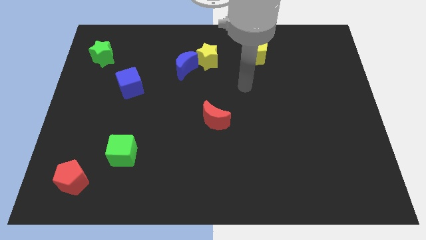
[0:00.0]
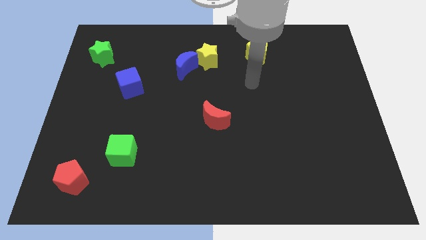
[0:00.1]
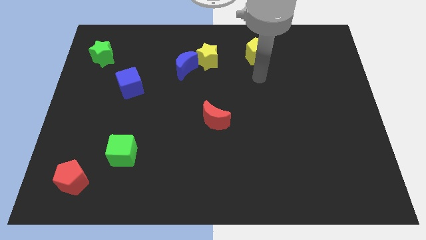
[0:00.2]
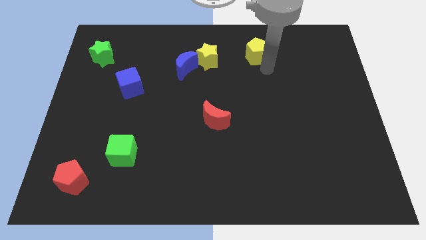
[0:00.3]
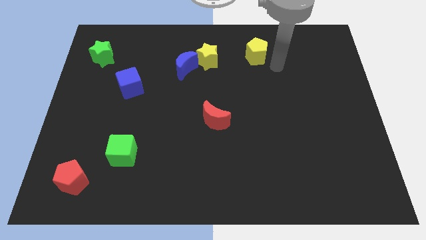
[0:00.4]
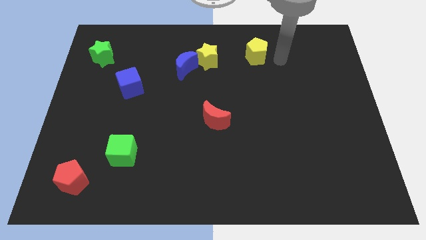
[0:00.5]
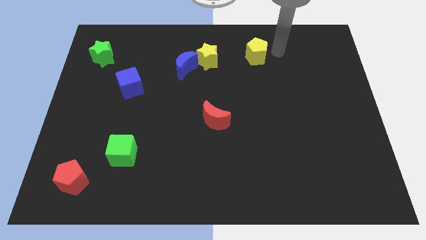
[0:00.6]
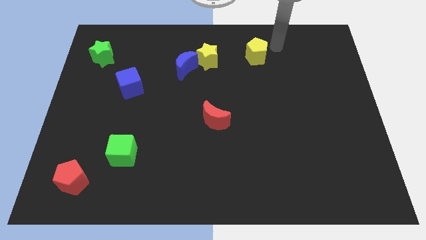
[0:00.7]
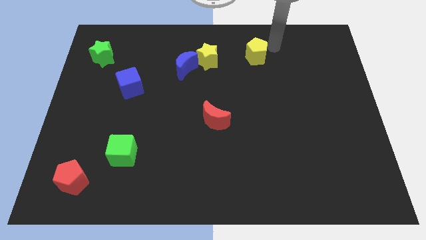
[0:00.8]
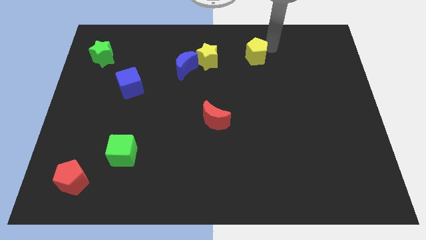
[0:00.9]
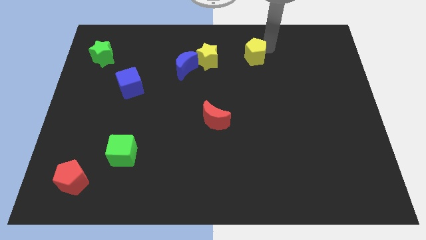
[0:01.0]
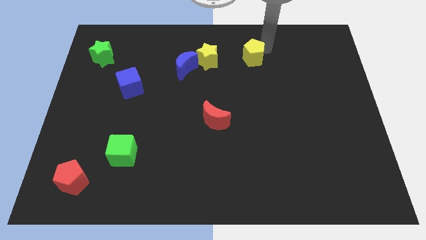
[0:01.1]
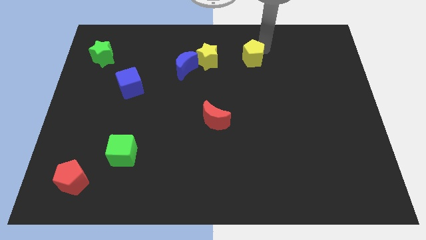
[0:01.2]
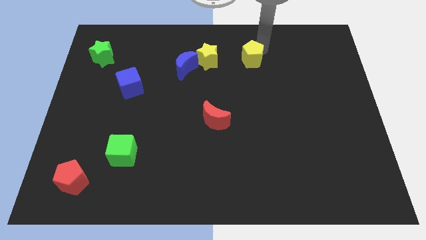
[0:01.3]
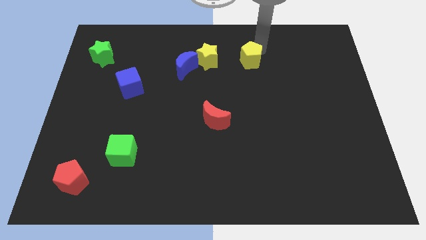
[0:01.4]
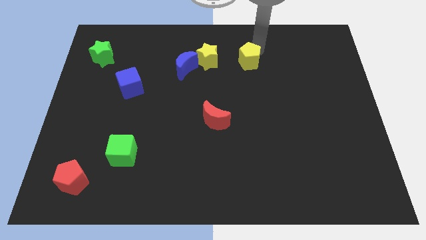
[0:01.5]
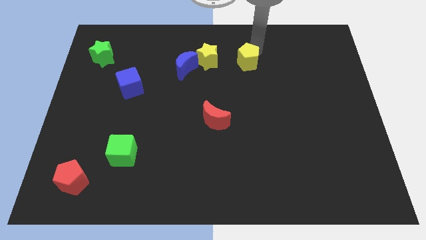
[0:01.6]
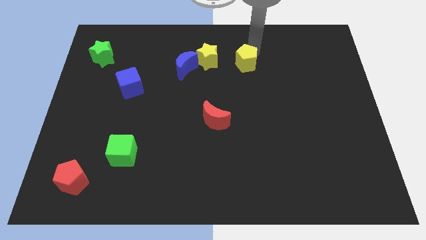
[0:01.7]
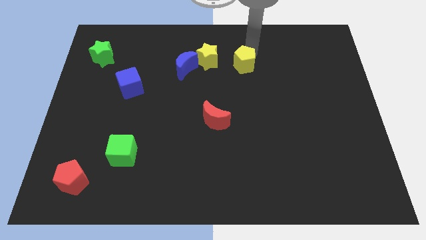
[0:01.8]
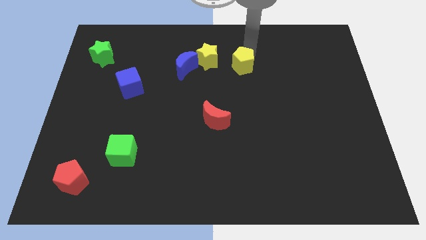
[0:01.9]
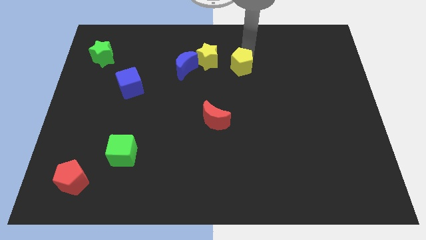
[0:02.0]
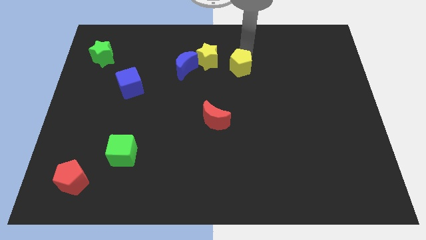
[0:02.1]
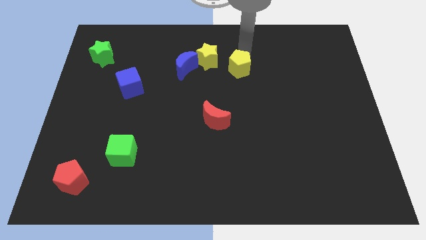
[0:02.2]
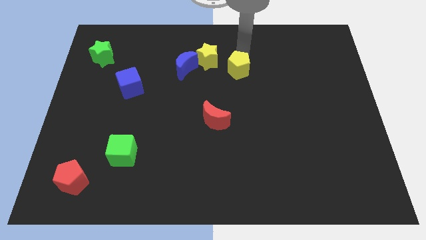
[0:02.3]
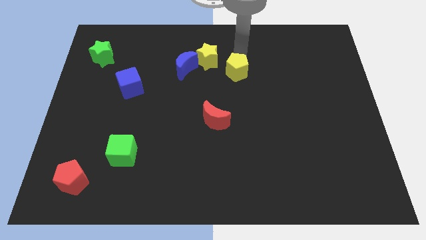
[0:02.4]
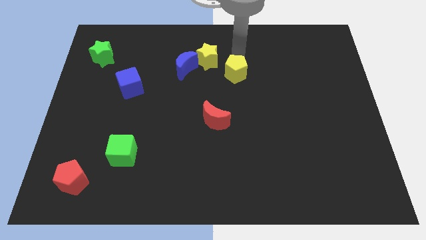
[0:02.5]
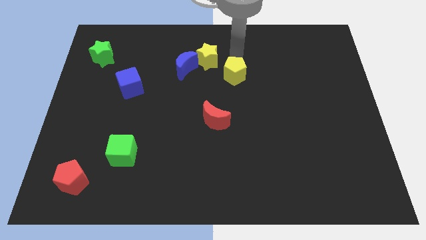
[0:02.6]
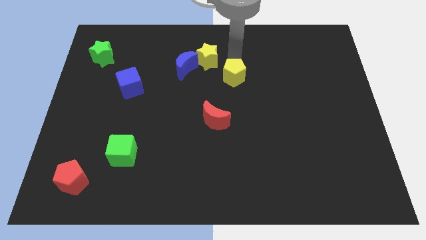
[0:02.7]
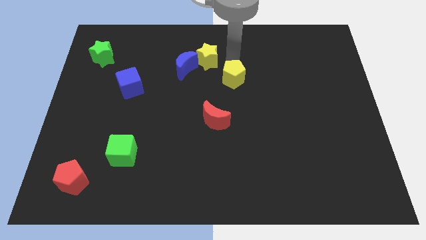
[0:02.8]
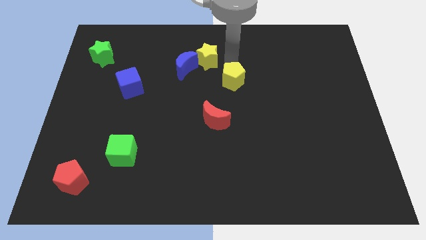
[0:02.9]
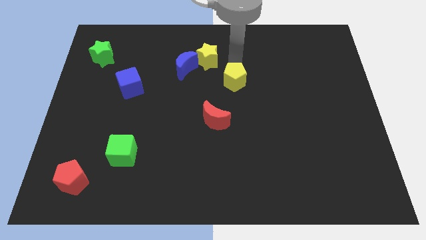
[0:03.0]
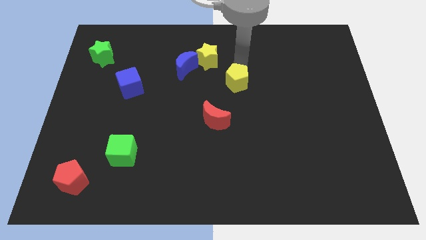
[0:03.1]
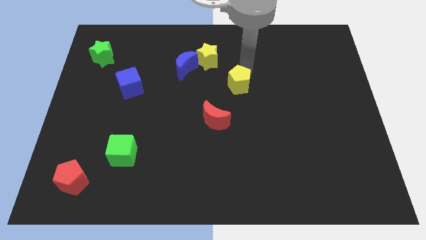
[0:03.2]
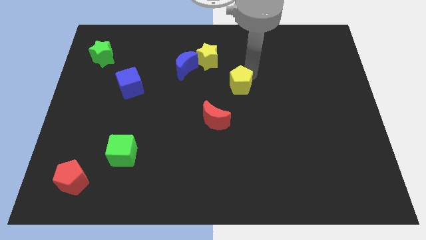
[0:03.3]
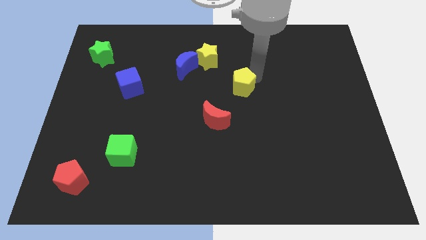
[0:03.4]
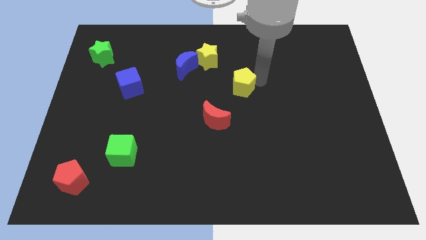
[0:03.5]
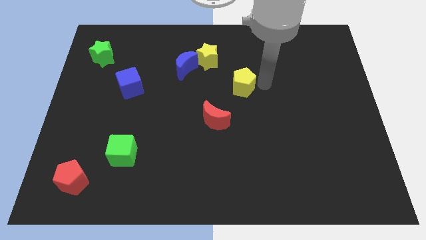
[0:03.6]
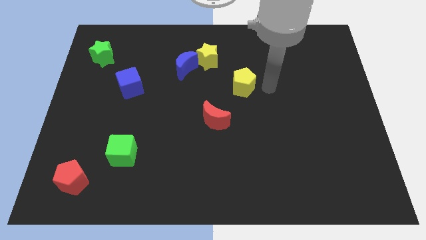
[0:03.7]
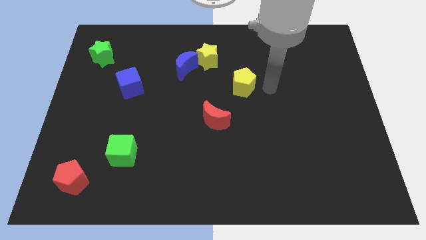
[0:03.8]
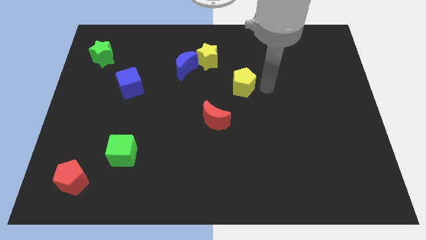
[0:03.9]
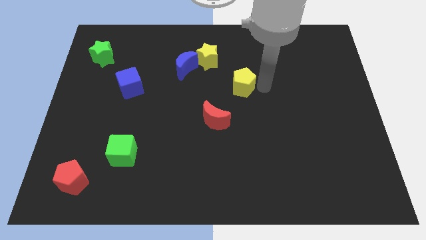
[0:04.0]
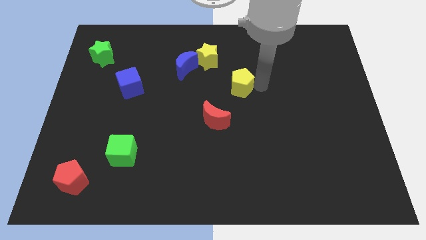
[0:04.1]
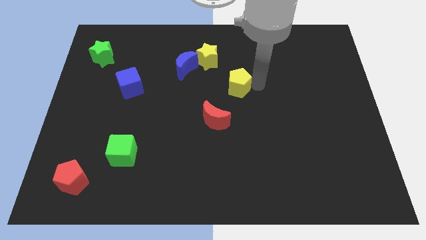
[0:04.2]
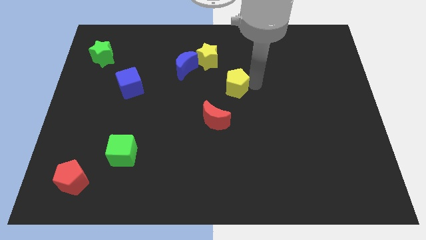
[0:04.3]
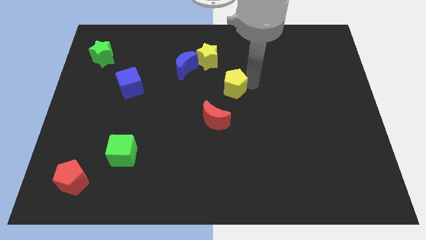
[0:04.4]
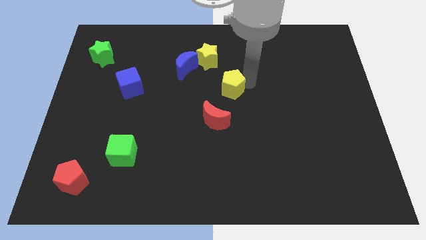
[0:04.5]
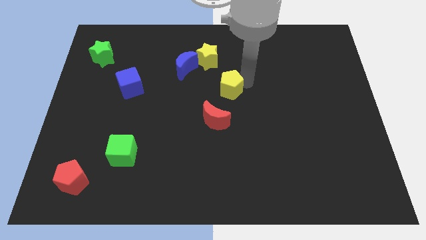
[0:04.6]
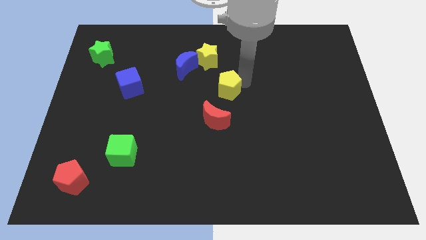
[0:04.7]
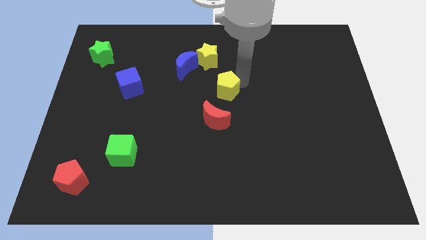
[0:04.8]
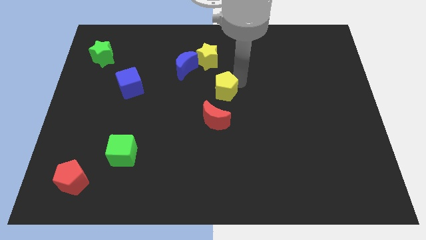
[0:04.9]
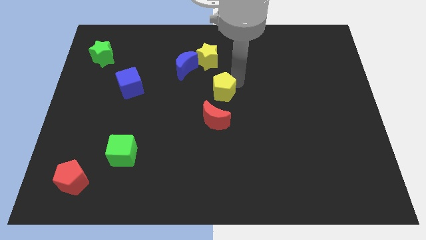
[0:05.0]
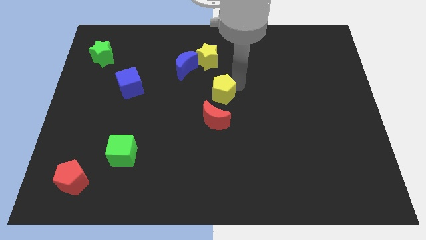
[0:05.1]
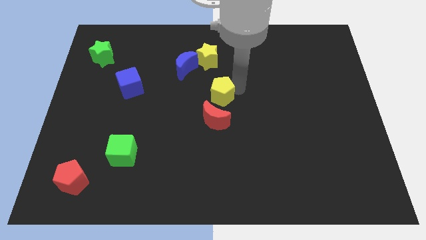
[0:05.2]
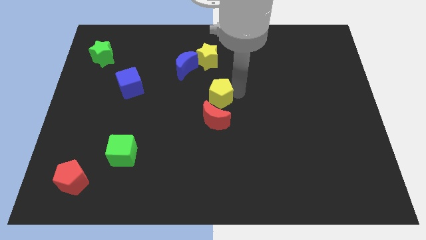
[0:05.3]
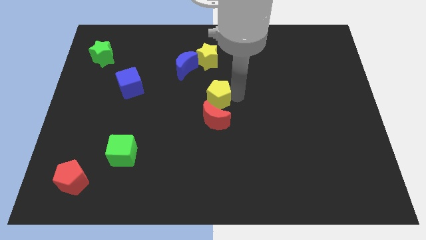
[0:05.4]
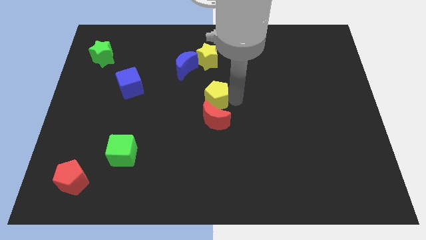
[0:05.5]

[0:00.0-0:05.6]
push the yellow pentagon diagonally up and to the left of the red moon

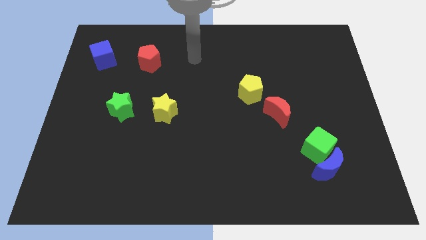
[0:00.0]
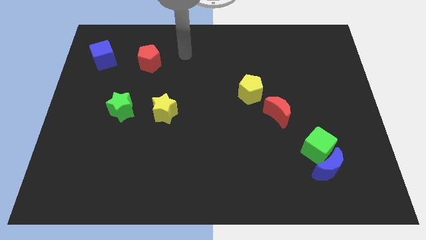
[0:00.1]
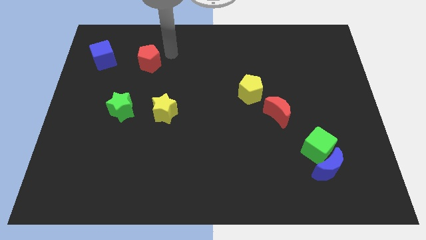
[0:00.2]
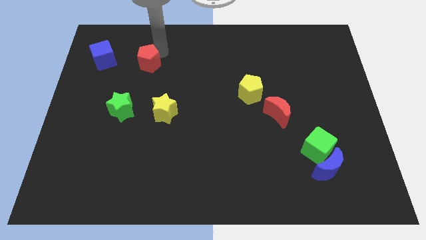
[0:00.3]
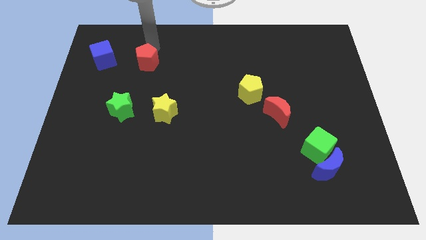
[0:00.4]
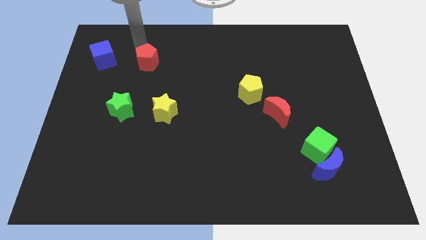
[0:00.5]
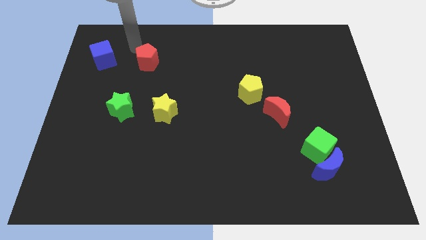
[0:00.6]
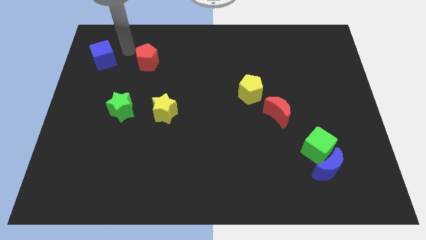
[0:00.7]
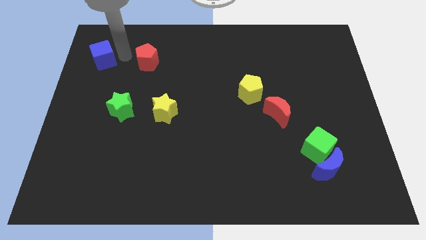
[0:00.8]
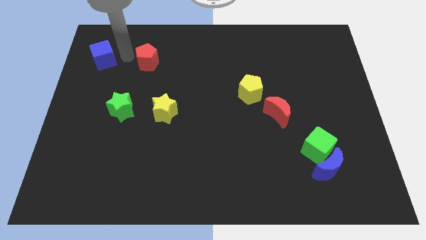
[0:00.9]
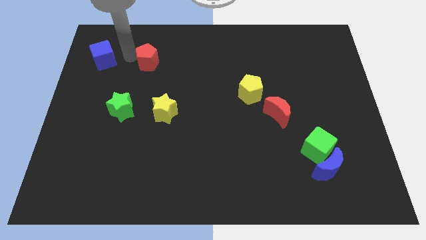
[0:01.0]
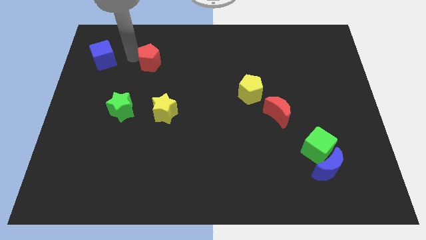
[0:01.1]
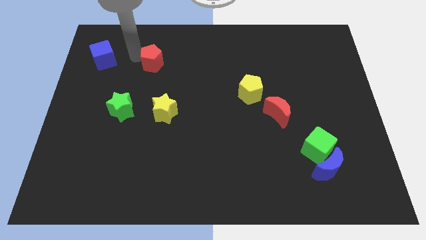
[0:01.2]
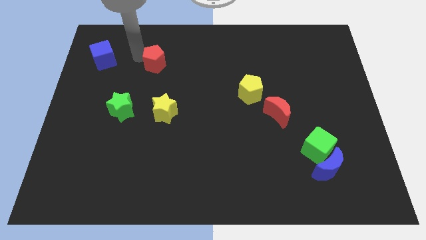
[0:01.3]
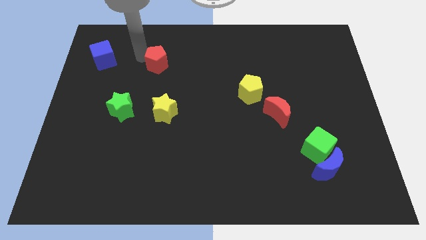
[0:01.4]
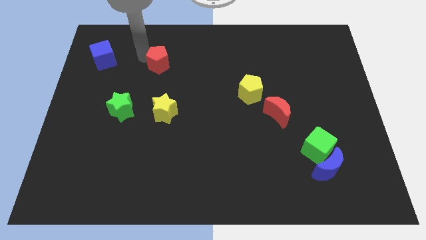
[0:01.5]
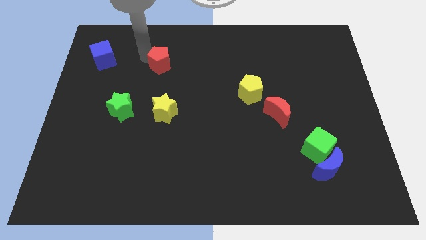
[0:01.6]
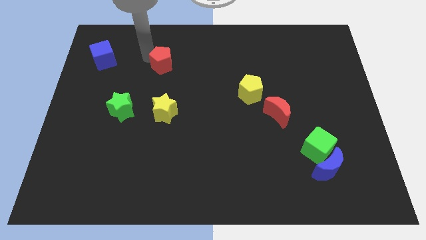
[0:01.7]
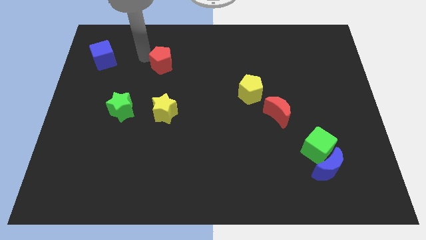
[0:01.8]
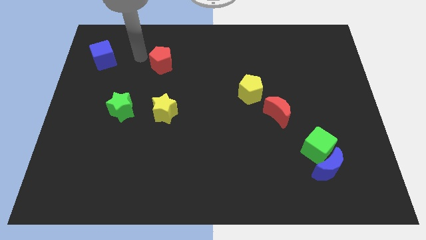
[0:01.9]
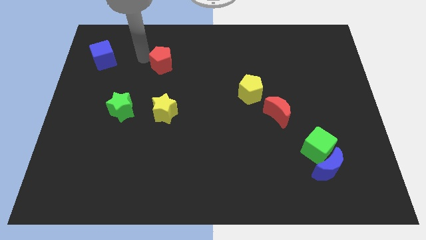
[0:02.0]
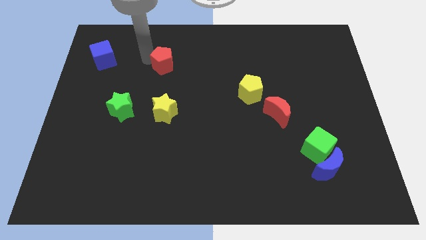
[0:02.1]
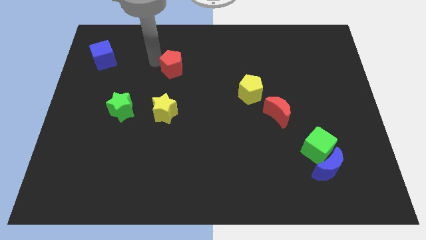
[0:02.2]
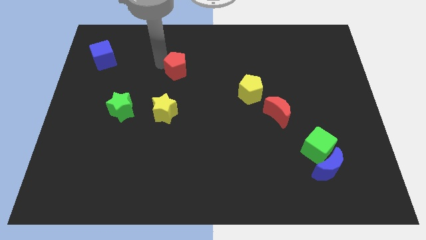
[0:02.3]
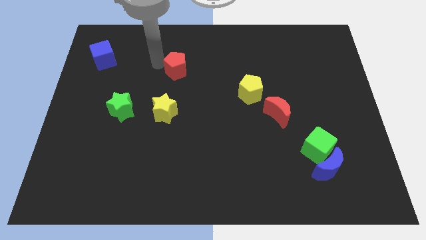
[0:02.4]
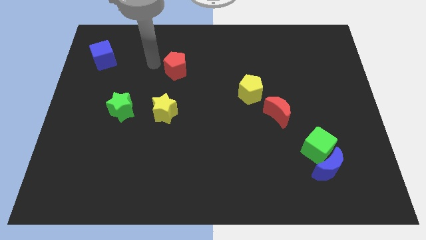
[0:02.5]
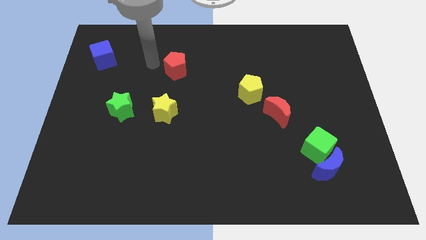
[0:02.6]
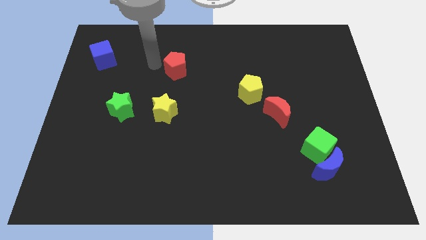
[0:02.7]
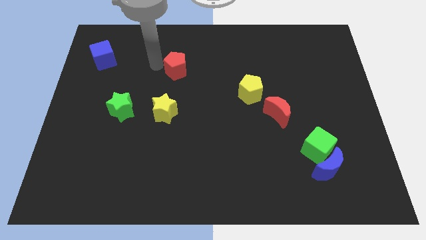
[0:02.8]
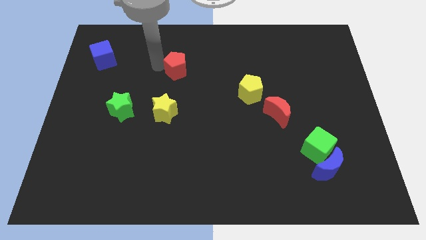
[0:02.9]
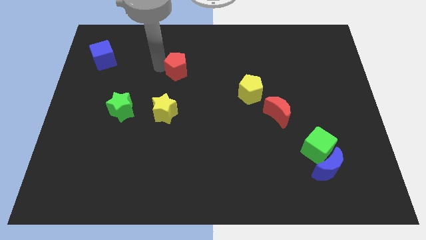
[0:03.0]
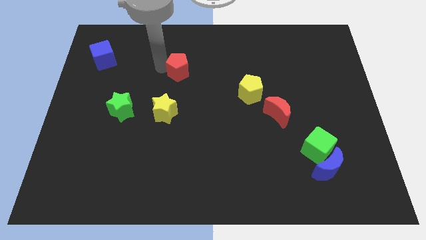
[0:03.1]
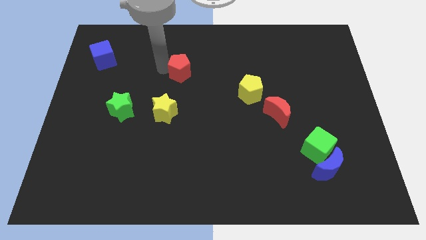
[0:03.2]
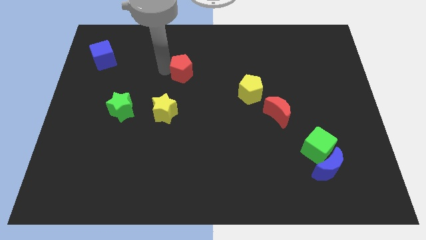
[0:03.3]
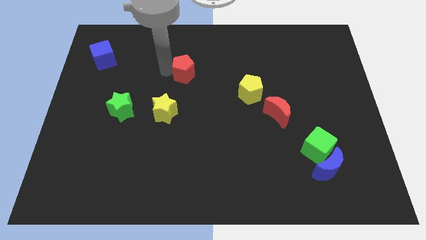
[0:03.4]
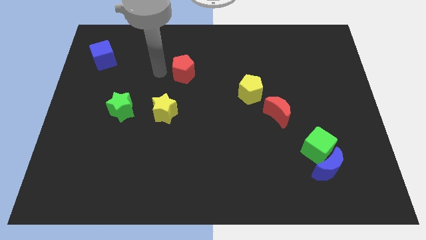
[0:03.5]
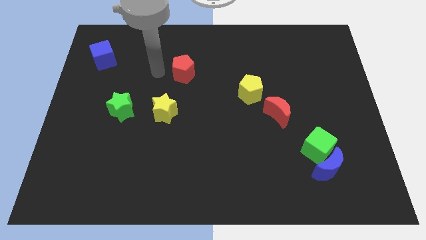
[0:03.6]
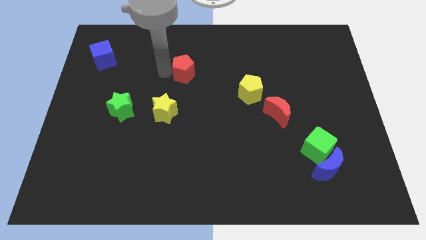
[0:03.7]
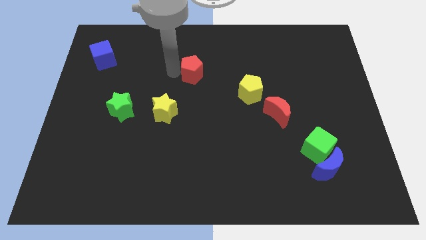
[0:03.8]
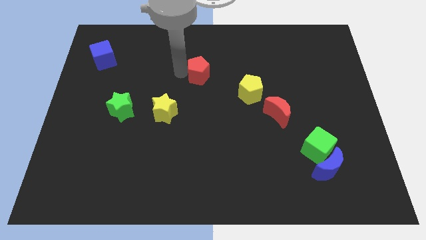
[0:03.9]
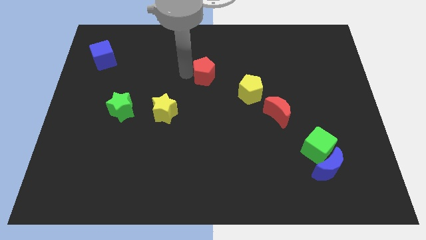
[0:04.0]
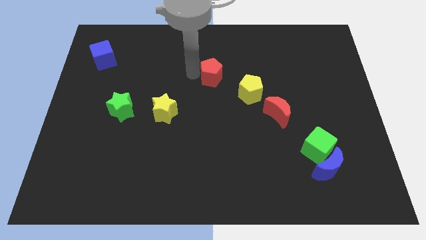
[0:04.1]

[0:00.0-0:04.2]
move the red pentagon diagonally up and to the left of the yellow pentagon
